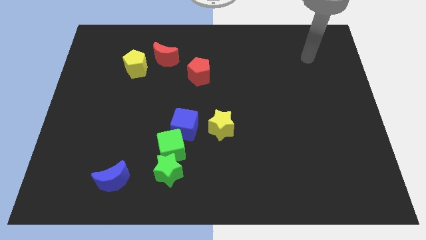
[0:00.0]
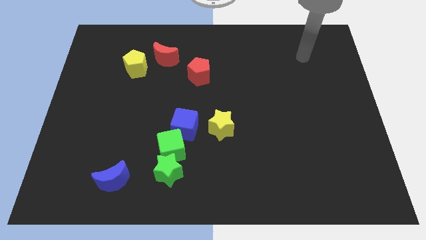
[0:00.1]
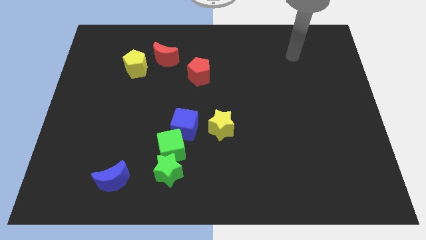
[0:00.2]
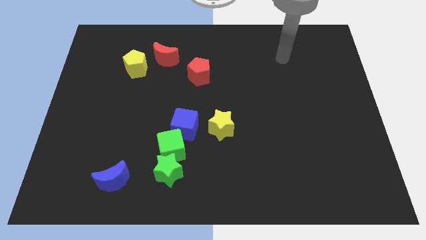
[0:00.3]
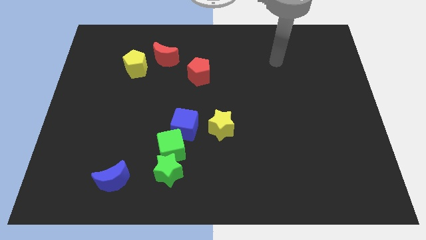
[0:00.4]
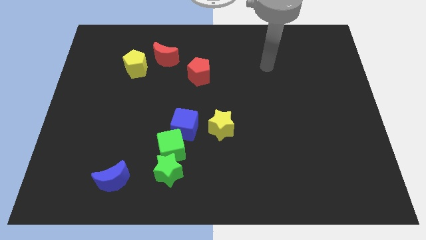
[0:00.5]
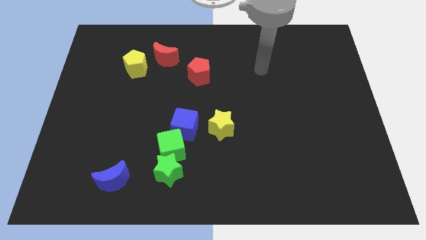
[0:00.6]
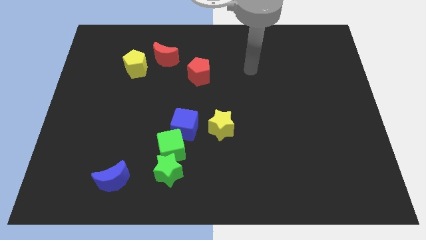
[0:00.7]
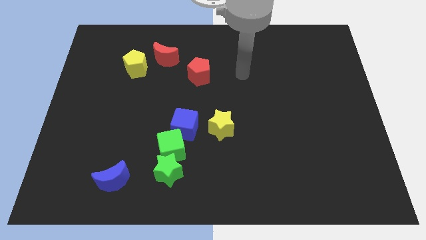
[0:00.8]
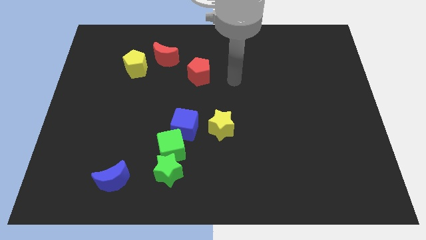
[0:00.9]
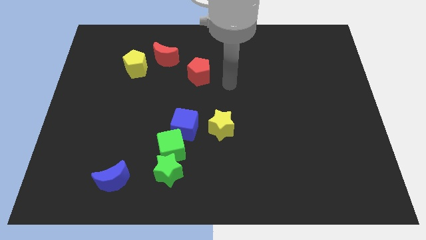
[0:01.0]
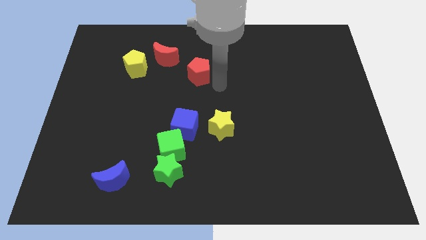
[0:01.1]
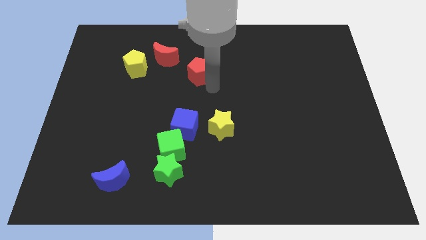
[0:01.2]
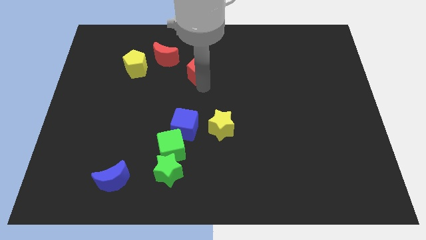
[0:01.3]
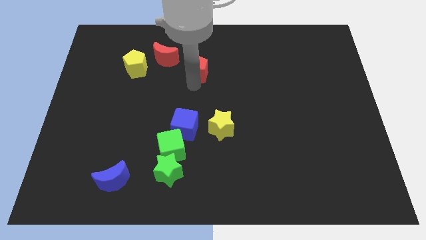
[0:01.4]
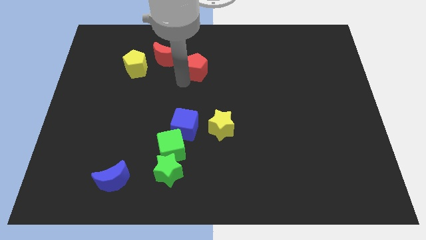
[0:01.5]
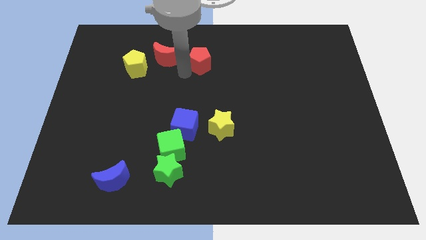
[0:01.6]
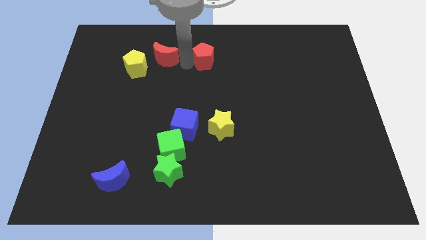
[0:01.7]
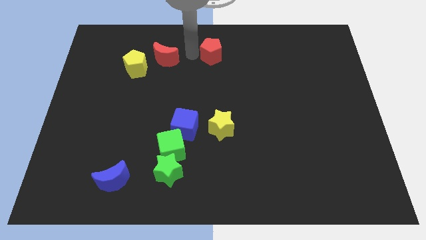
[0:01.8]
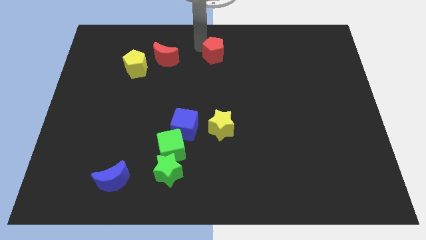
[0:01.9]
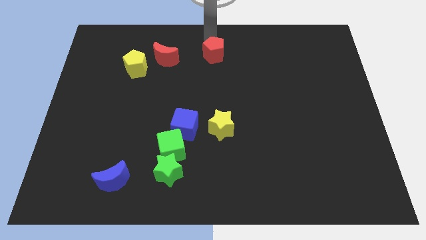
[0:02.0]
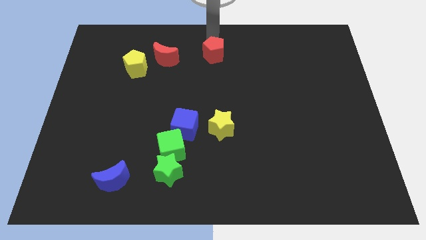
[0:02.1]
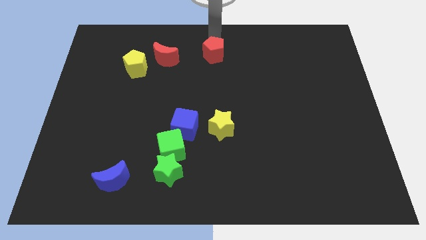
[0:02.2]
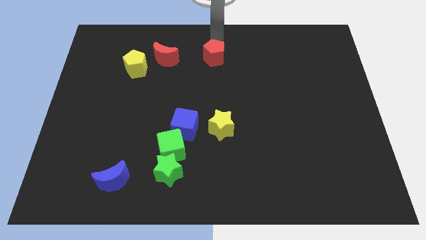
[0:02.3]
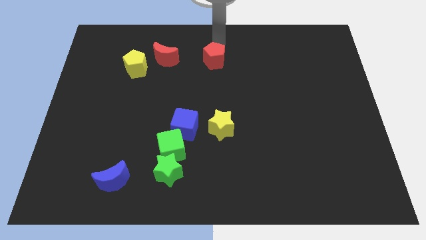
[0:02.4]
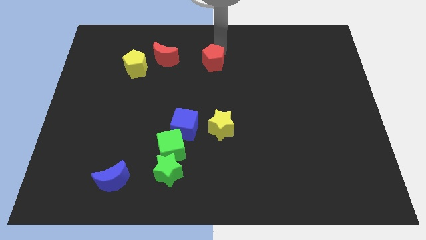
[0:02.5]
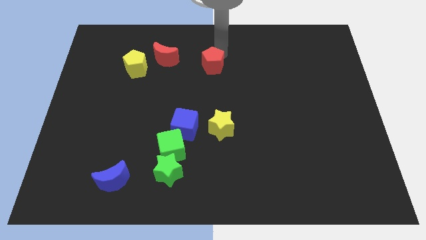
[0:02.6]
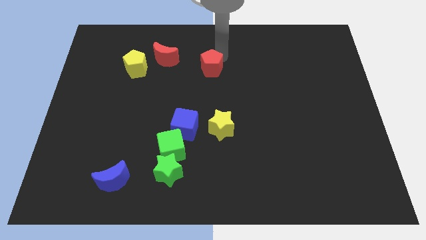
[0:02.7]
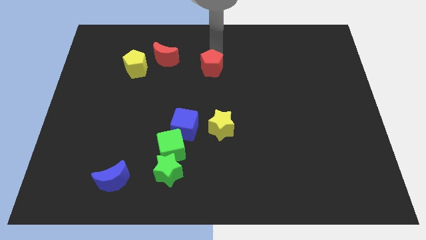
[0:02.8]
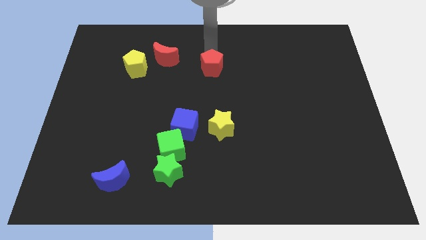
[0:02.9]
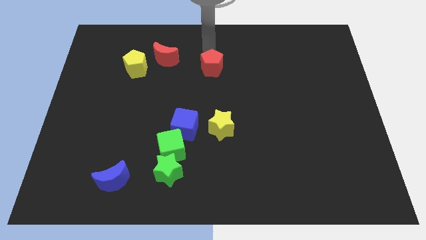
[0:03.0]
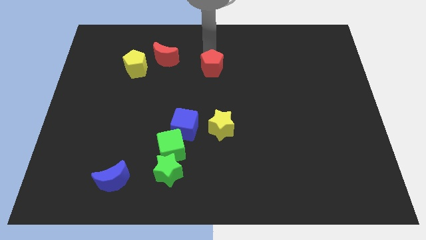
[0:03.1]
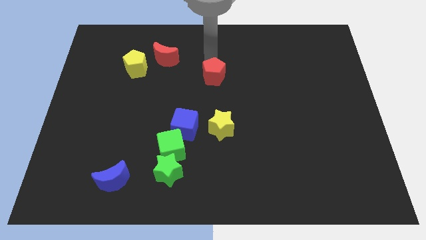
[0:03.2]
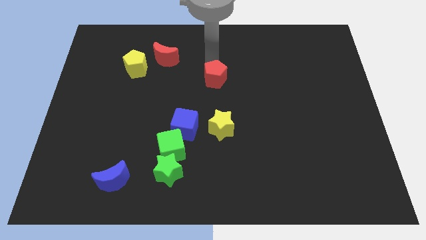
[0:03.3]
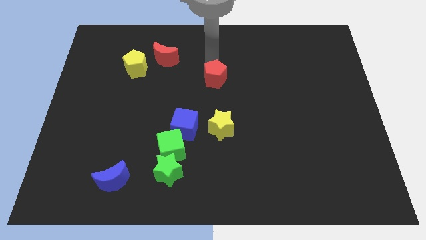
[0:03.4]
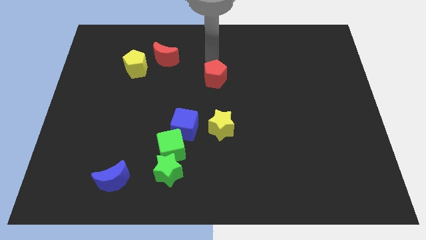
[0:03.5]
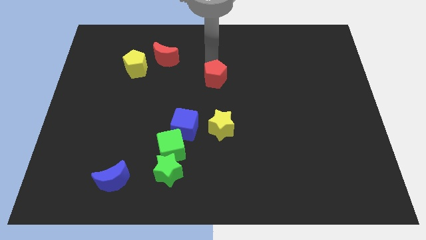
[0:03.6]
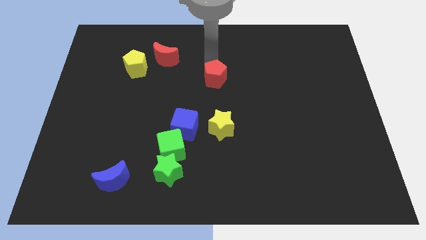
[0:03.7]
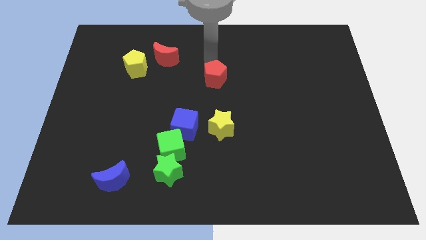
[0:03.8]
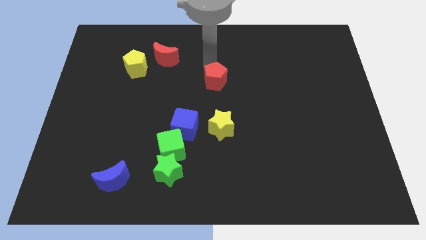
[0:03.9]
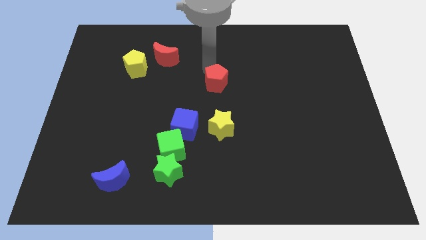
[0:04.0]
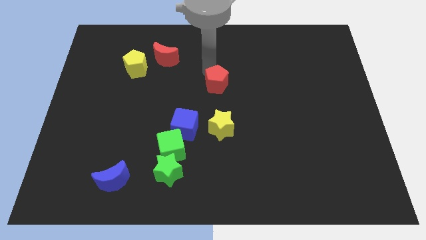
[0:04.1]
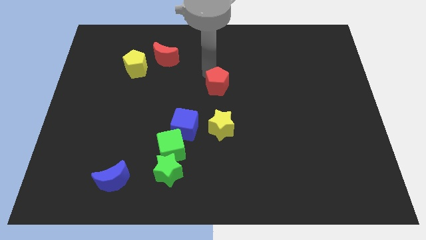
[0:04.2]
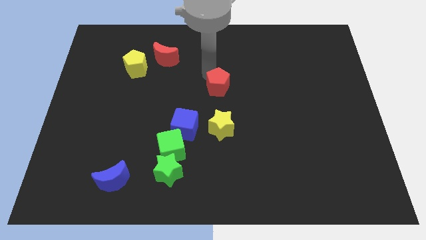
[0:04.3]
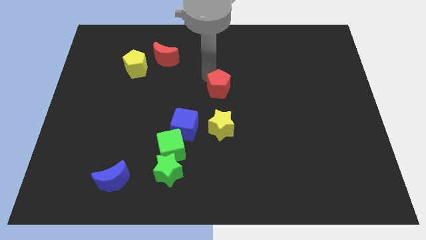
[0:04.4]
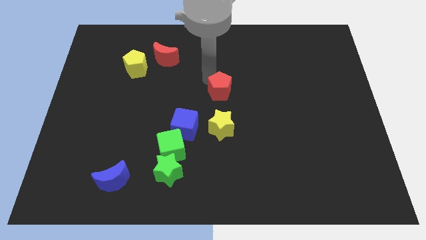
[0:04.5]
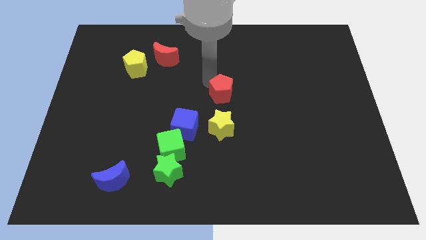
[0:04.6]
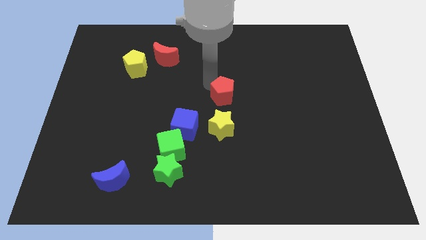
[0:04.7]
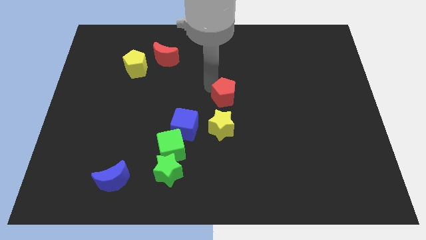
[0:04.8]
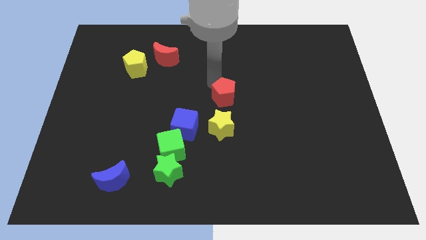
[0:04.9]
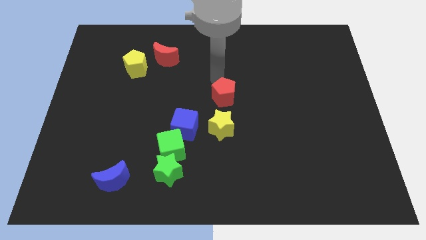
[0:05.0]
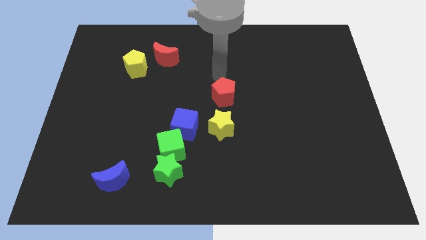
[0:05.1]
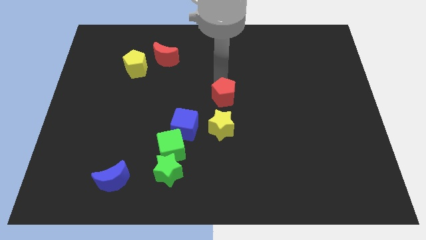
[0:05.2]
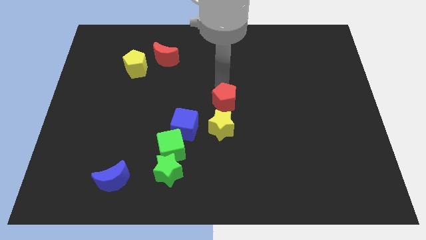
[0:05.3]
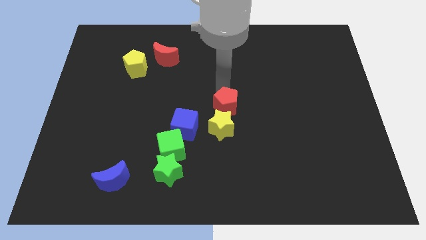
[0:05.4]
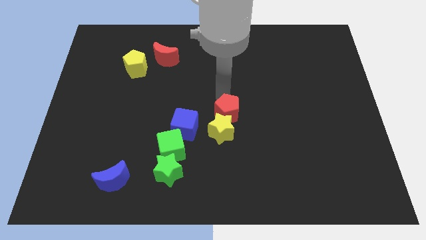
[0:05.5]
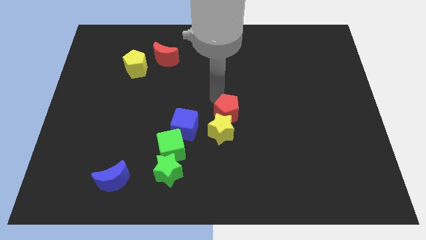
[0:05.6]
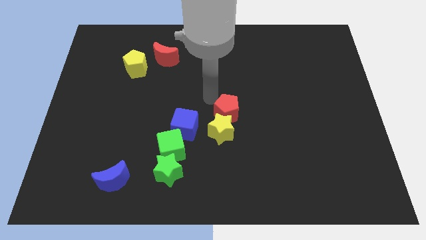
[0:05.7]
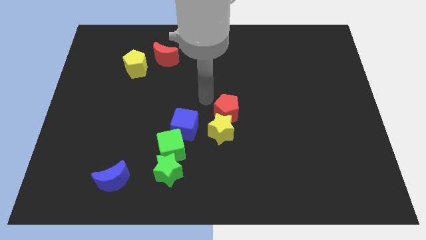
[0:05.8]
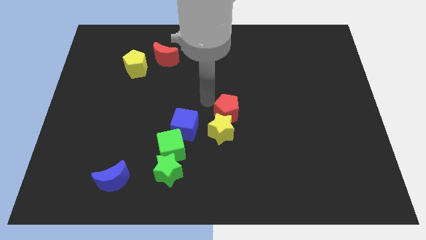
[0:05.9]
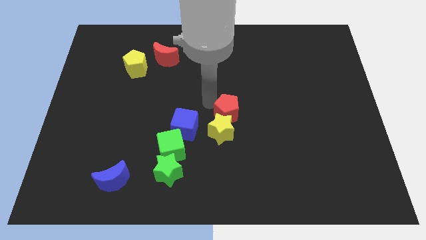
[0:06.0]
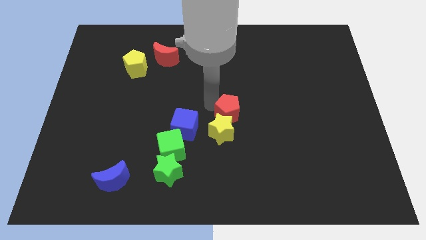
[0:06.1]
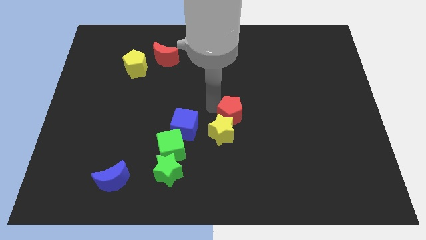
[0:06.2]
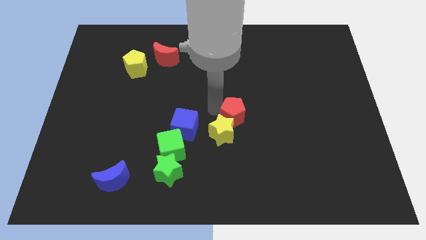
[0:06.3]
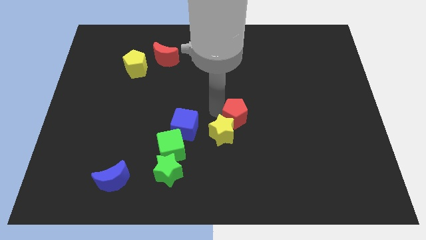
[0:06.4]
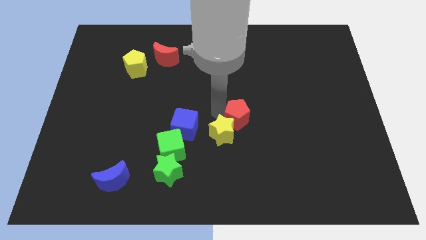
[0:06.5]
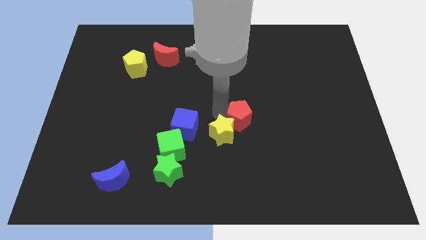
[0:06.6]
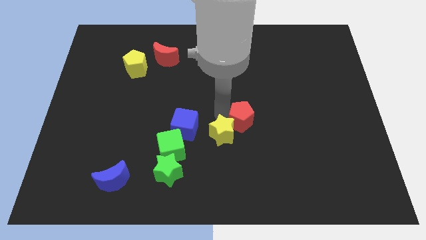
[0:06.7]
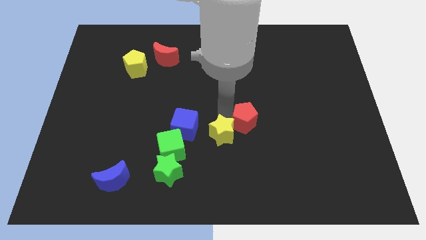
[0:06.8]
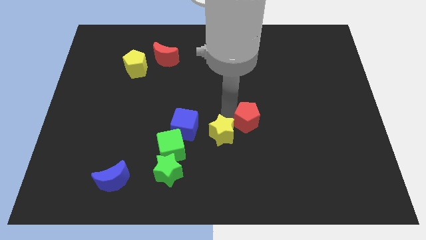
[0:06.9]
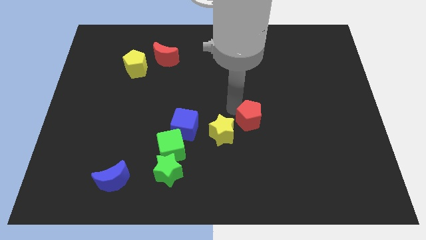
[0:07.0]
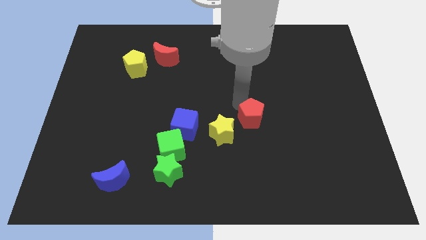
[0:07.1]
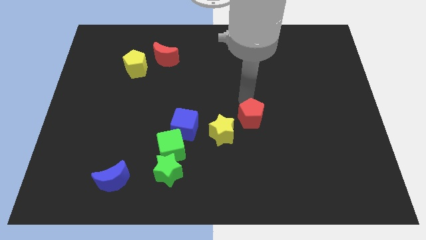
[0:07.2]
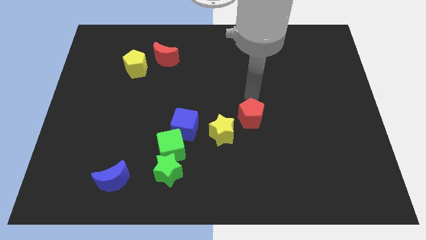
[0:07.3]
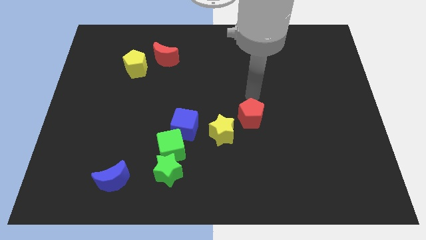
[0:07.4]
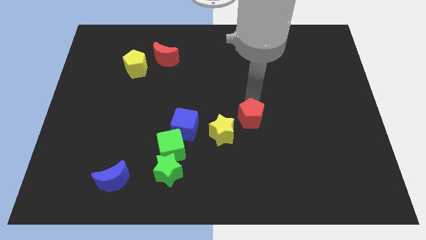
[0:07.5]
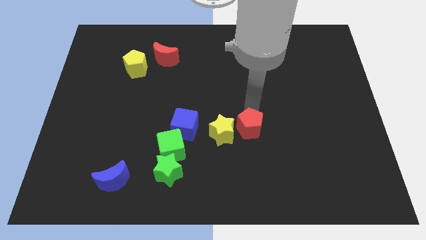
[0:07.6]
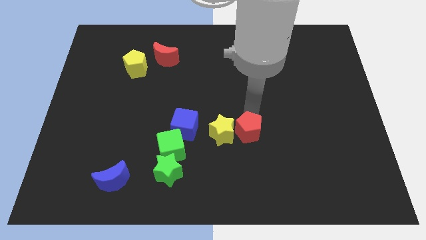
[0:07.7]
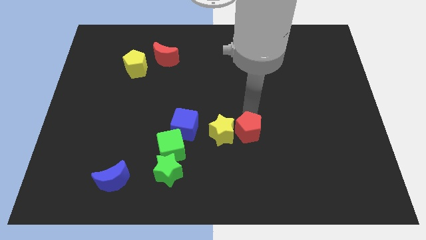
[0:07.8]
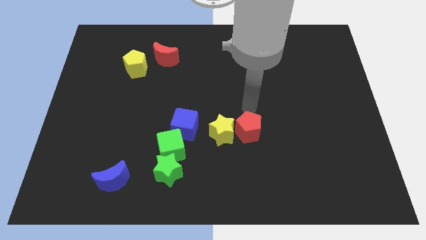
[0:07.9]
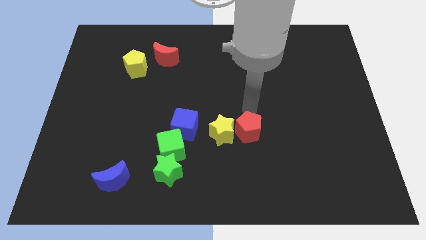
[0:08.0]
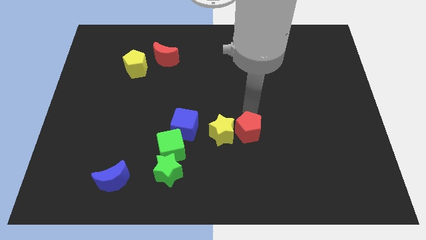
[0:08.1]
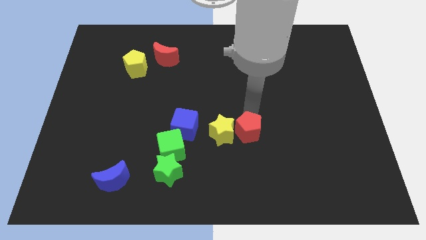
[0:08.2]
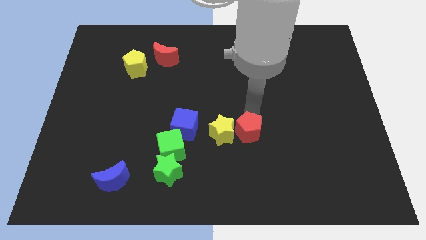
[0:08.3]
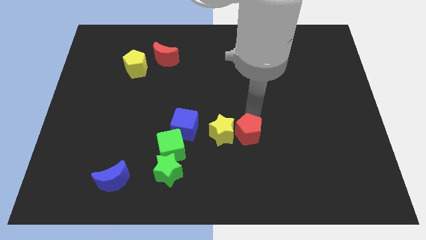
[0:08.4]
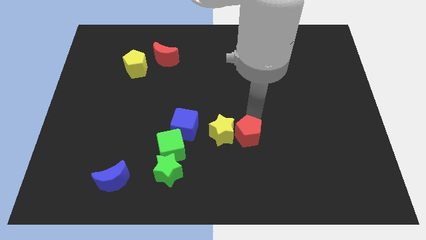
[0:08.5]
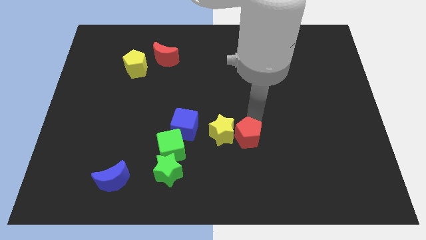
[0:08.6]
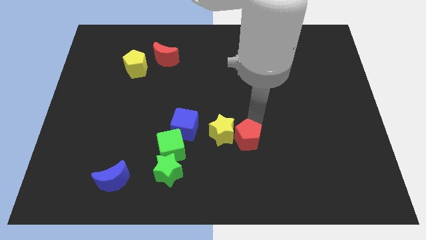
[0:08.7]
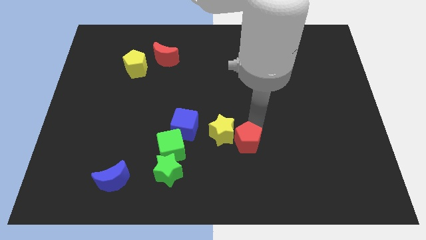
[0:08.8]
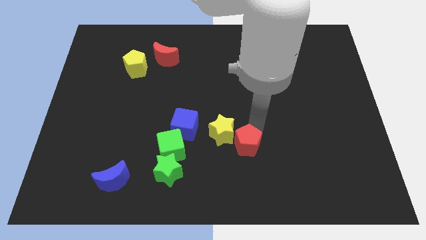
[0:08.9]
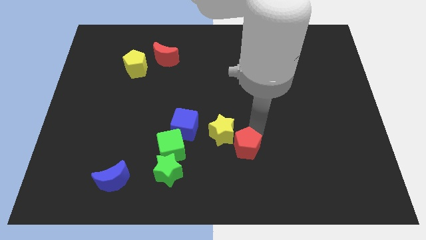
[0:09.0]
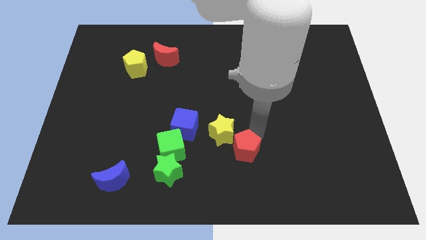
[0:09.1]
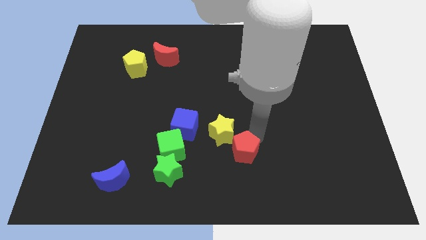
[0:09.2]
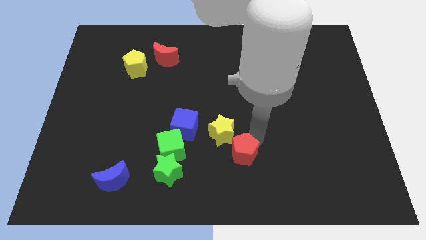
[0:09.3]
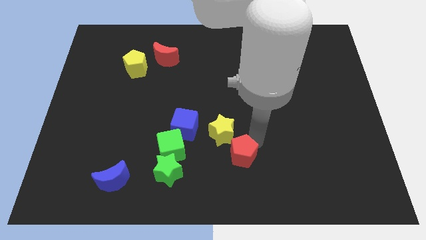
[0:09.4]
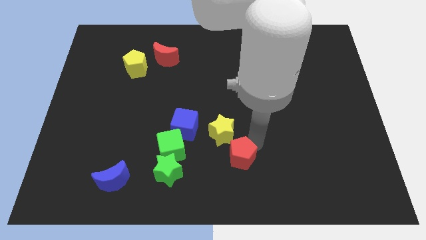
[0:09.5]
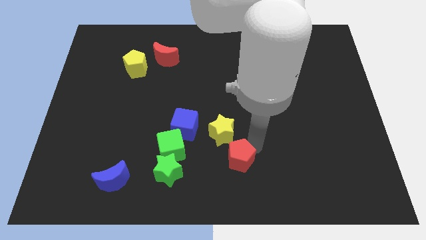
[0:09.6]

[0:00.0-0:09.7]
put the red pentagon to the bottom
